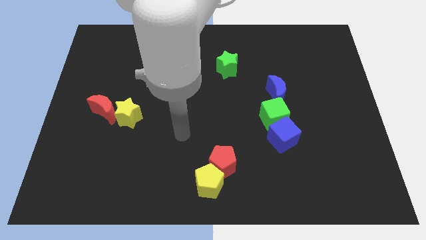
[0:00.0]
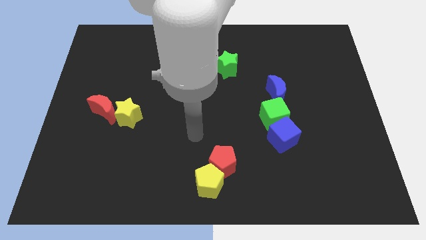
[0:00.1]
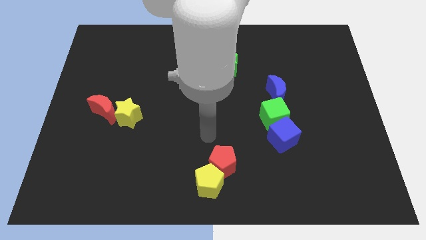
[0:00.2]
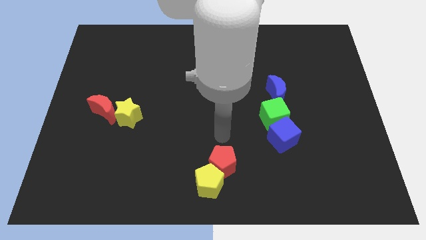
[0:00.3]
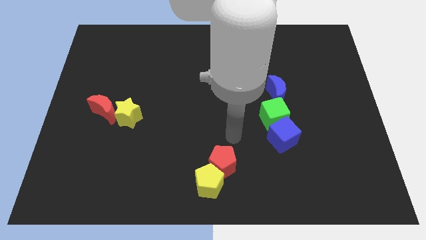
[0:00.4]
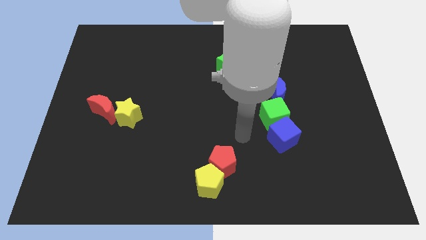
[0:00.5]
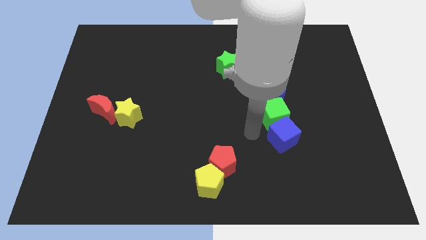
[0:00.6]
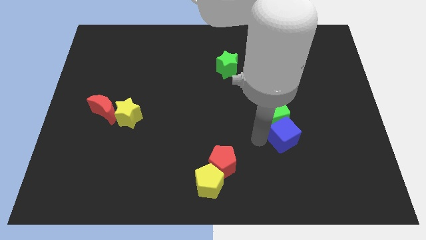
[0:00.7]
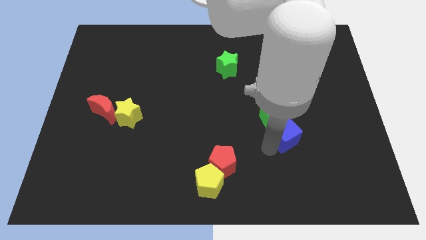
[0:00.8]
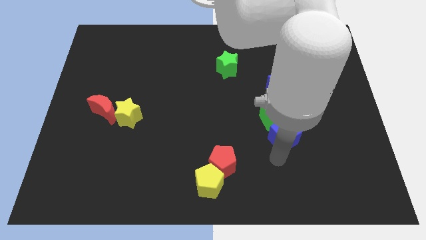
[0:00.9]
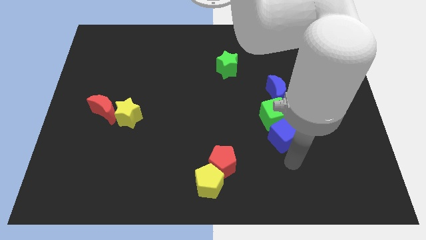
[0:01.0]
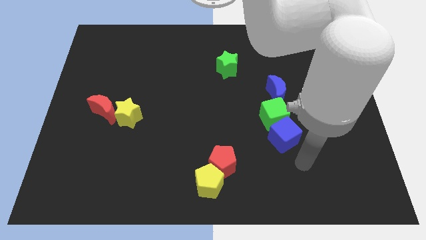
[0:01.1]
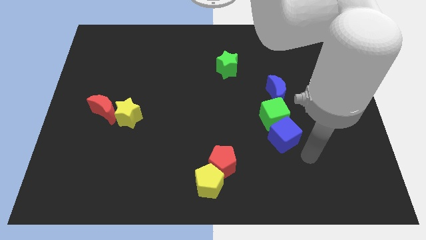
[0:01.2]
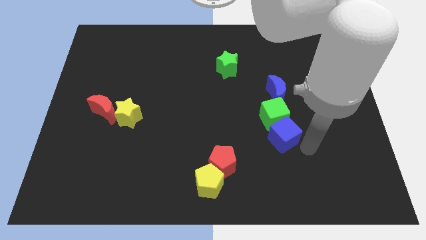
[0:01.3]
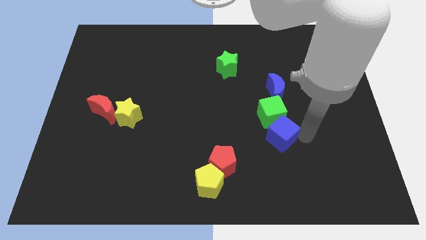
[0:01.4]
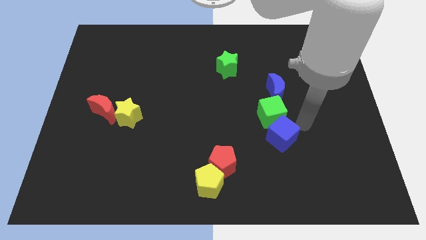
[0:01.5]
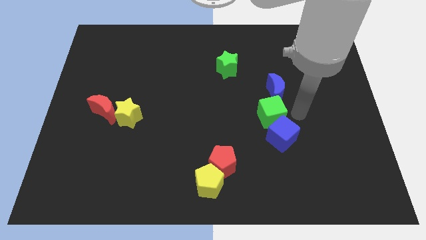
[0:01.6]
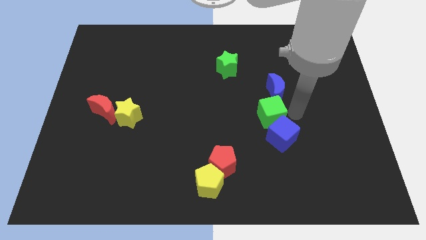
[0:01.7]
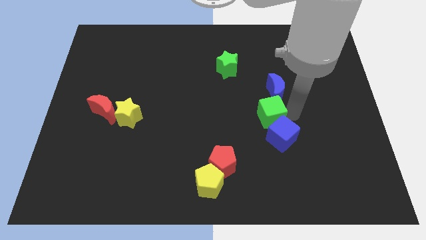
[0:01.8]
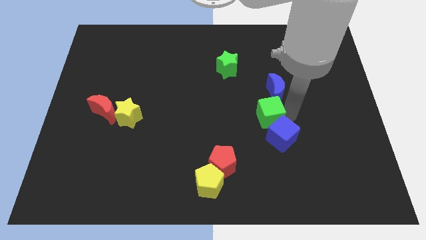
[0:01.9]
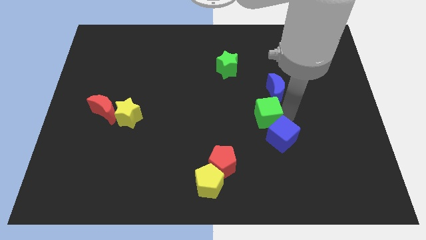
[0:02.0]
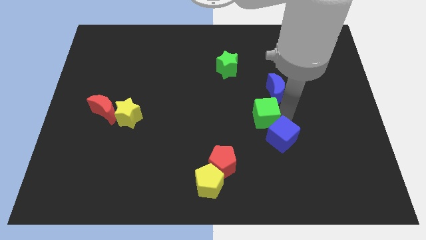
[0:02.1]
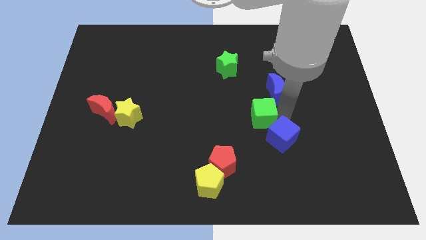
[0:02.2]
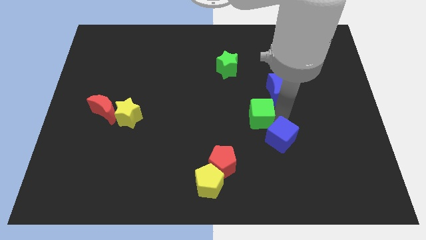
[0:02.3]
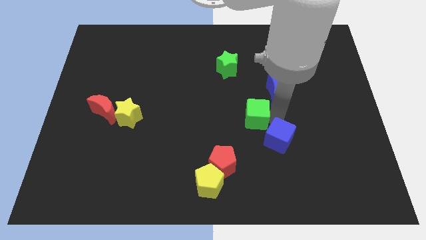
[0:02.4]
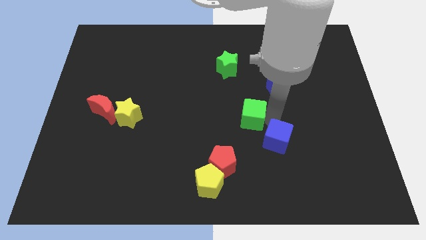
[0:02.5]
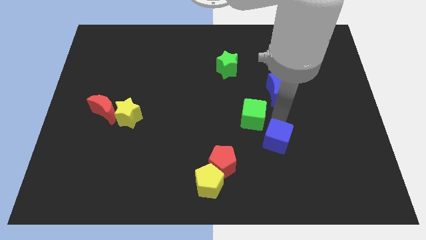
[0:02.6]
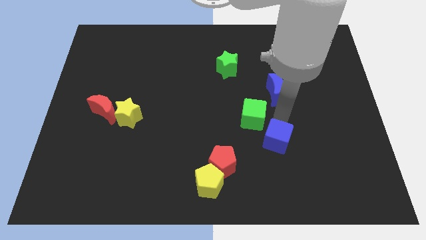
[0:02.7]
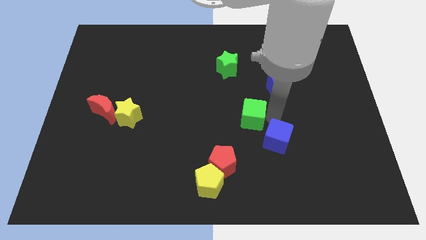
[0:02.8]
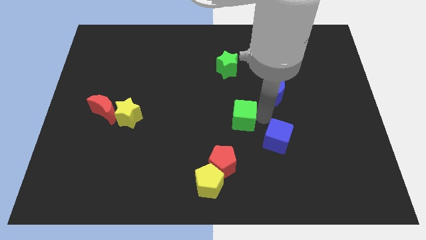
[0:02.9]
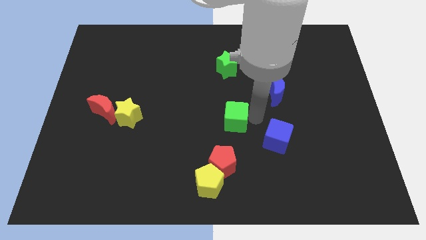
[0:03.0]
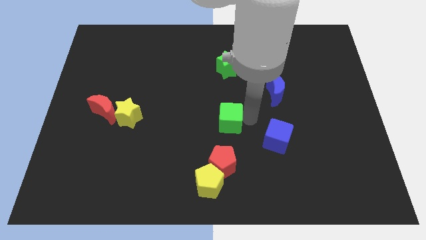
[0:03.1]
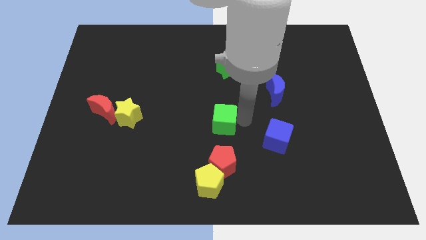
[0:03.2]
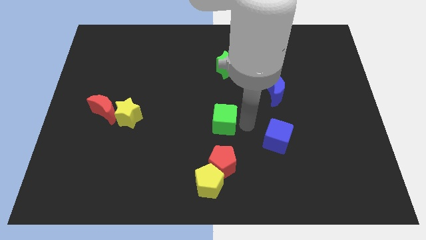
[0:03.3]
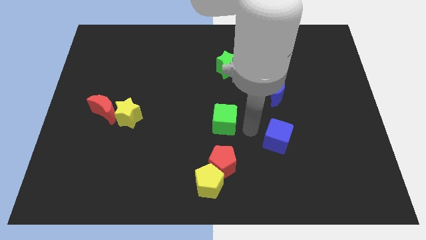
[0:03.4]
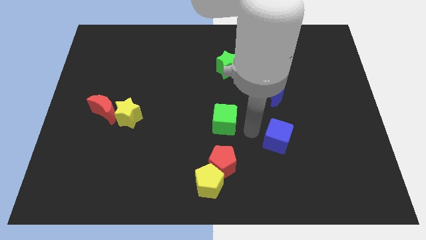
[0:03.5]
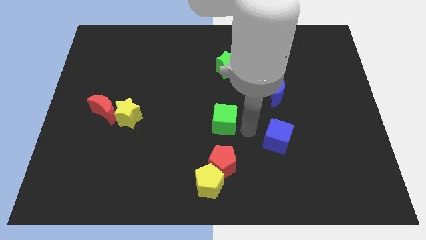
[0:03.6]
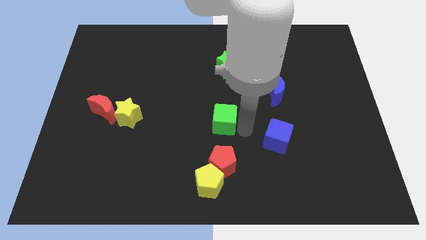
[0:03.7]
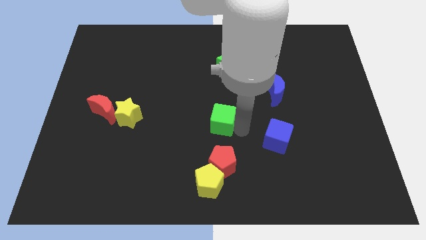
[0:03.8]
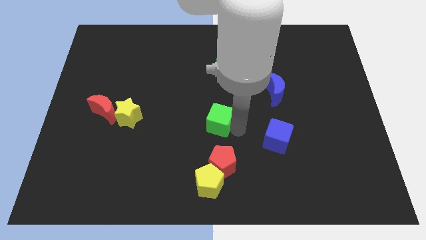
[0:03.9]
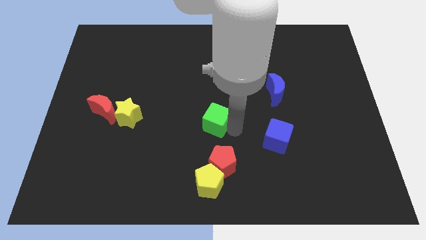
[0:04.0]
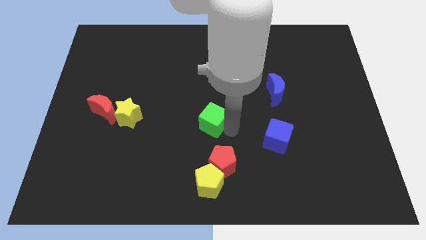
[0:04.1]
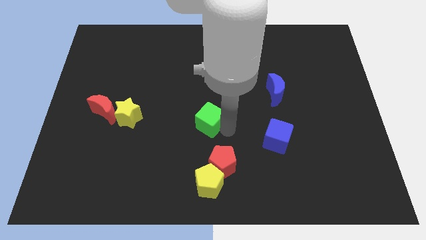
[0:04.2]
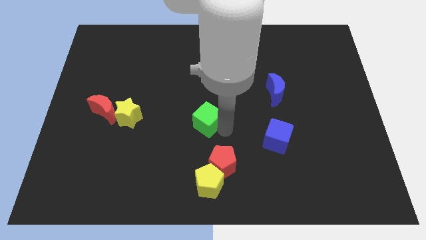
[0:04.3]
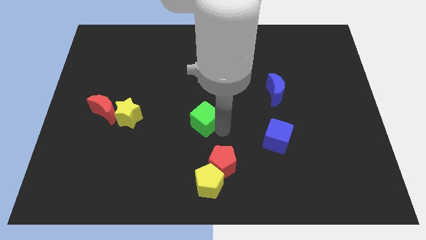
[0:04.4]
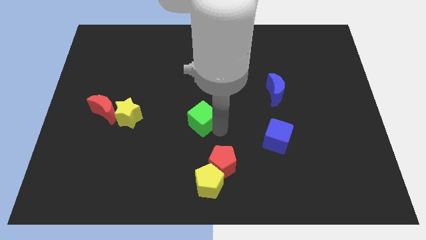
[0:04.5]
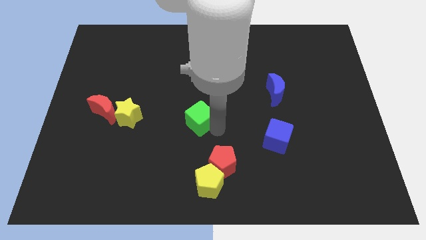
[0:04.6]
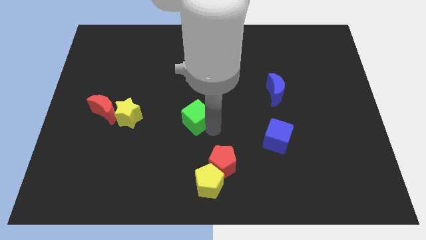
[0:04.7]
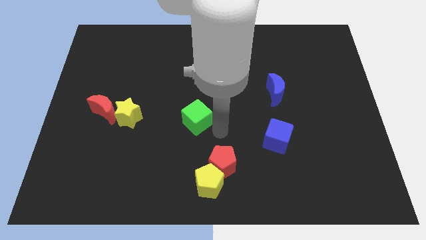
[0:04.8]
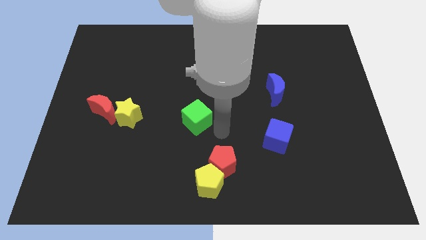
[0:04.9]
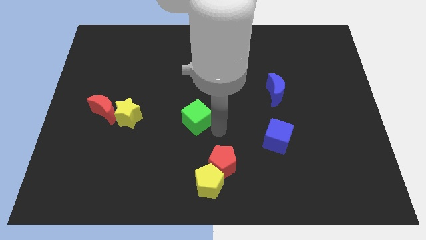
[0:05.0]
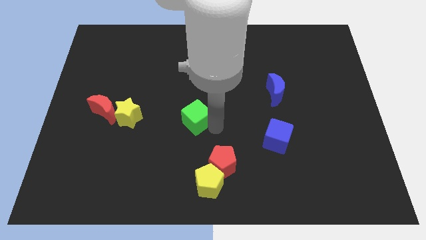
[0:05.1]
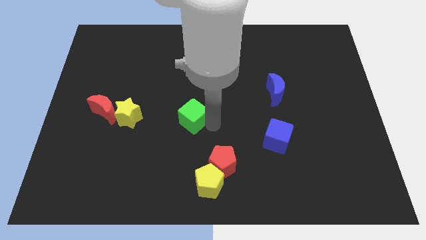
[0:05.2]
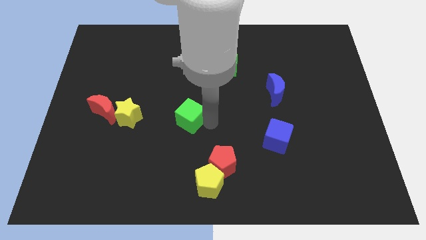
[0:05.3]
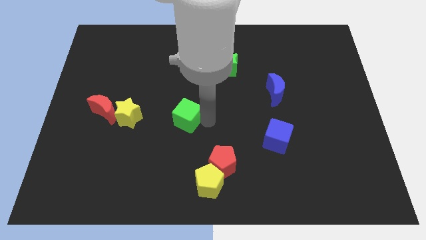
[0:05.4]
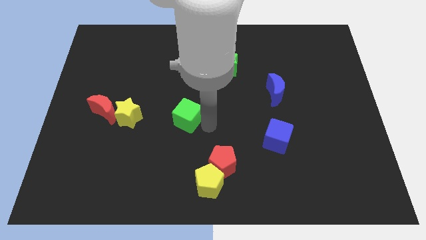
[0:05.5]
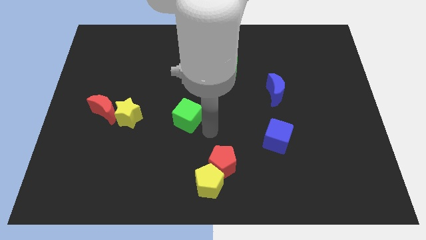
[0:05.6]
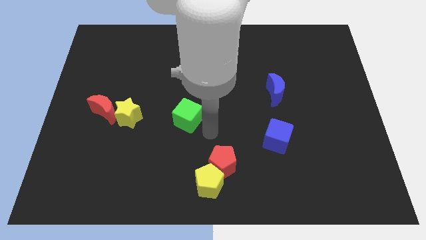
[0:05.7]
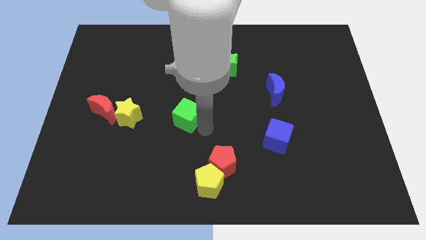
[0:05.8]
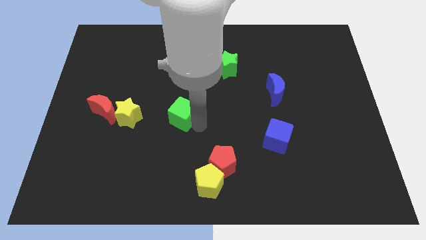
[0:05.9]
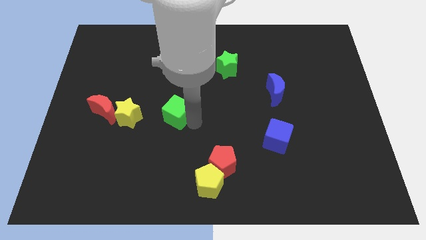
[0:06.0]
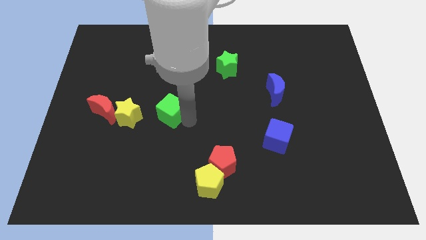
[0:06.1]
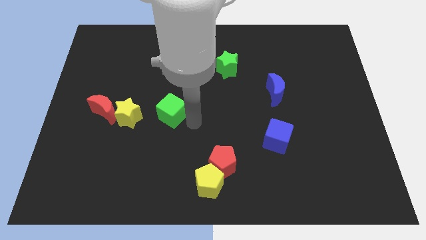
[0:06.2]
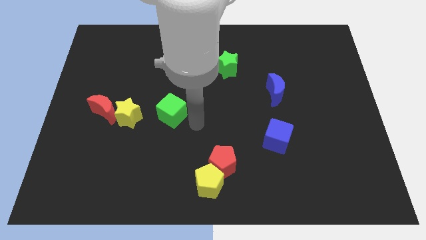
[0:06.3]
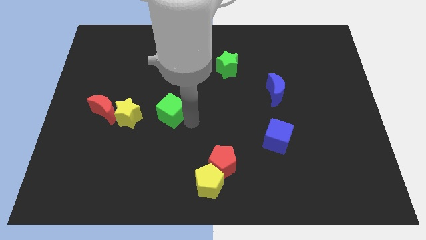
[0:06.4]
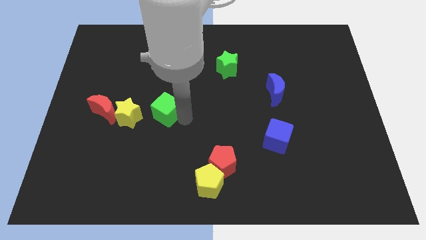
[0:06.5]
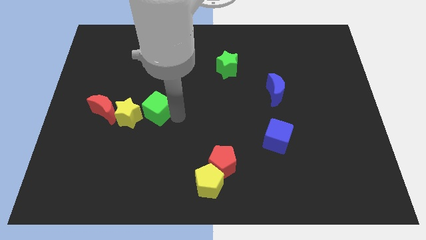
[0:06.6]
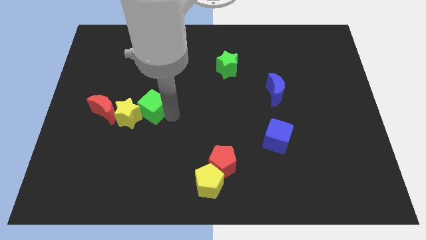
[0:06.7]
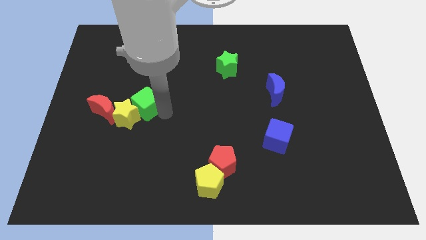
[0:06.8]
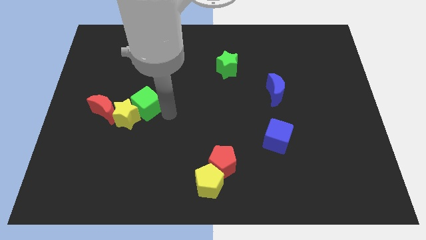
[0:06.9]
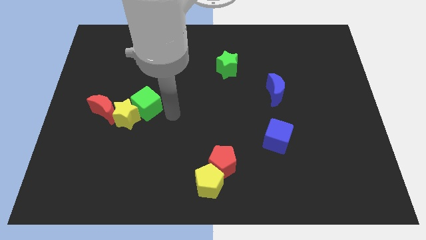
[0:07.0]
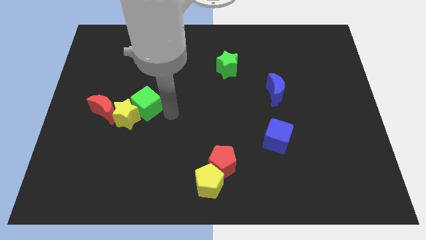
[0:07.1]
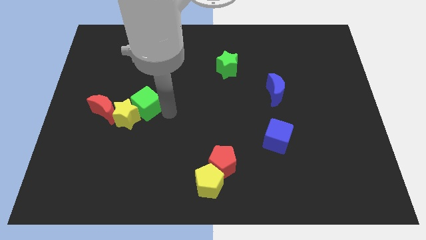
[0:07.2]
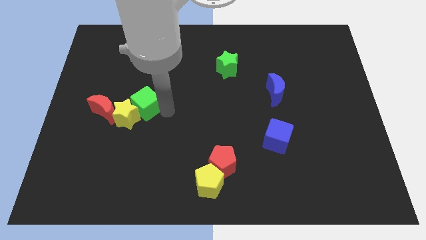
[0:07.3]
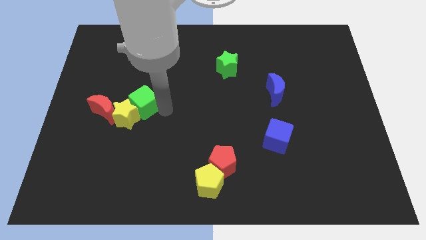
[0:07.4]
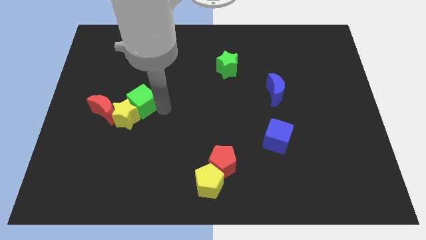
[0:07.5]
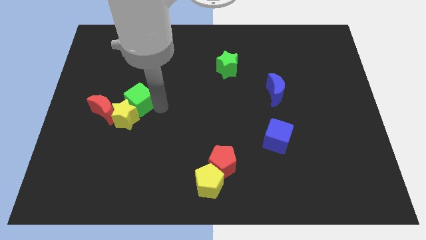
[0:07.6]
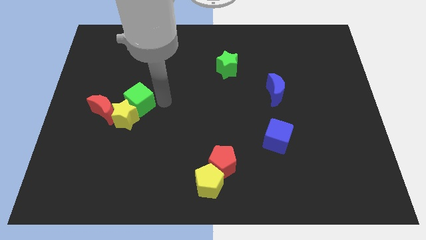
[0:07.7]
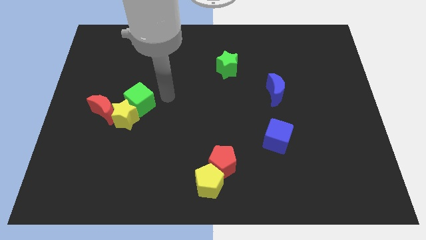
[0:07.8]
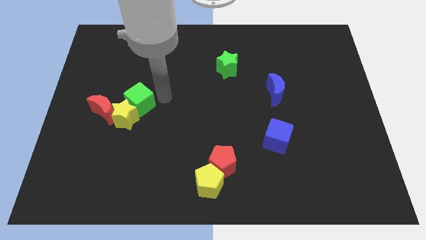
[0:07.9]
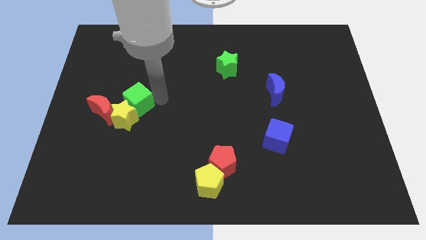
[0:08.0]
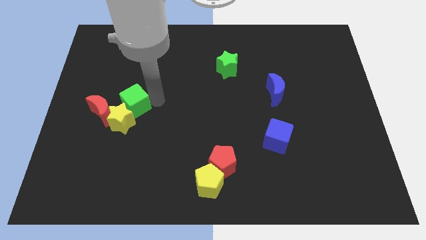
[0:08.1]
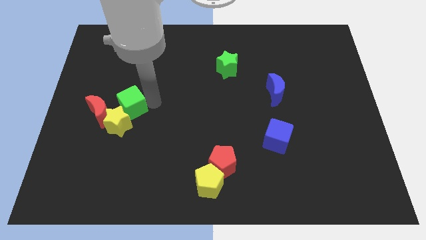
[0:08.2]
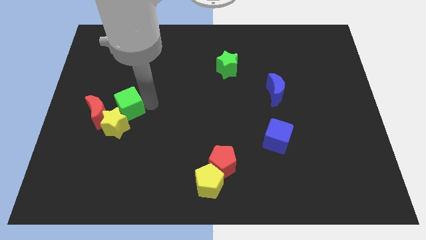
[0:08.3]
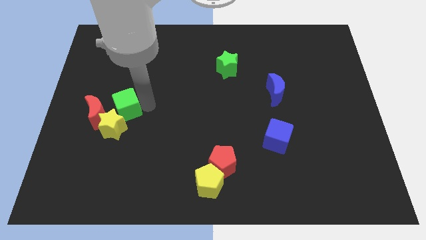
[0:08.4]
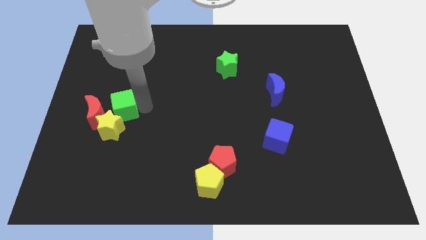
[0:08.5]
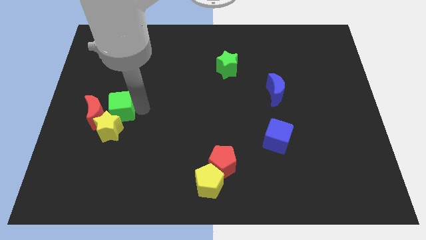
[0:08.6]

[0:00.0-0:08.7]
move the green cube close to the red moon
